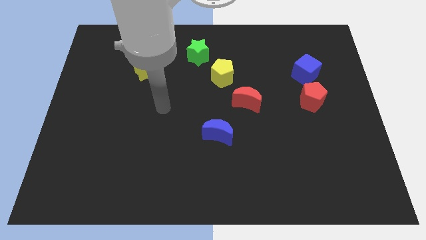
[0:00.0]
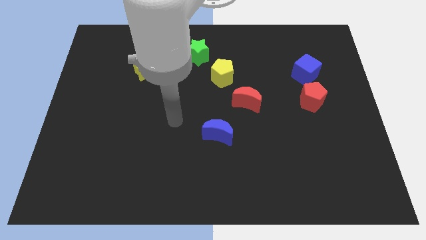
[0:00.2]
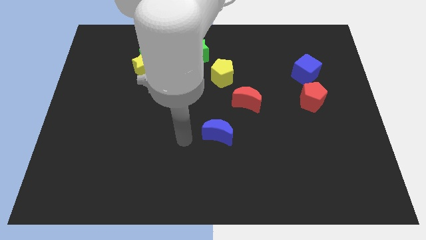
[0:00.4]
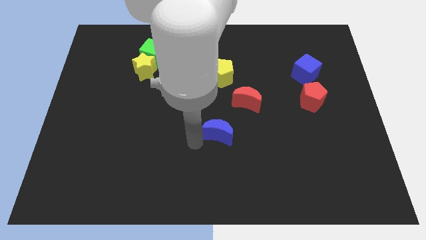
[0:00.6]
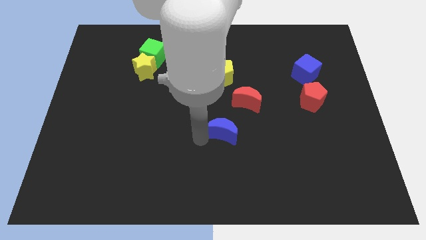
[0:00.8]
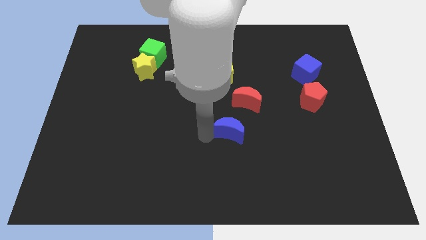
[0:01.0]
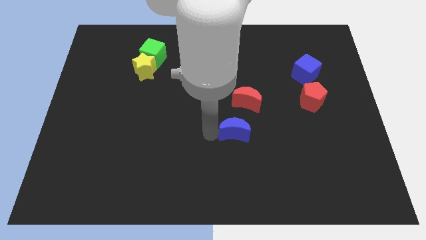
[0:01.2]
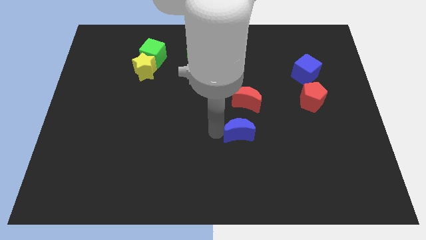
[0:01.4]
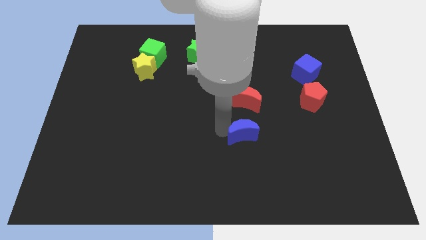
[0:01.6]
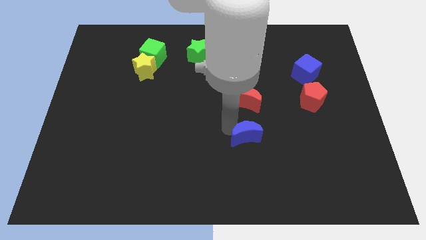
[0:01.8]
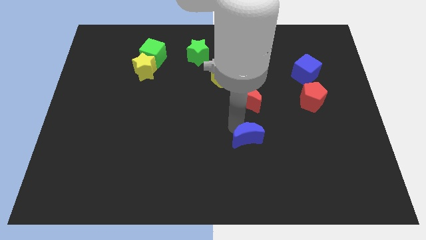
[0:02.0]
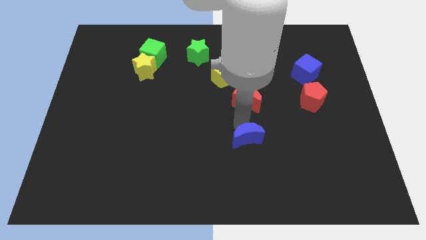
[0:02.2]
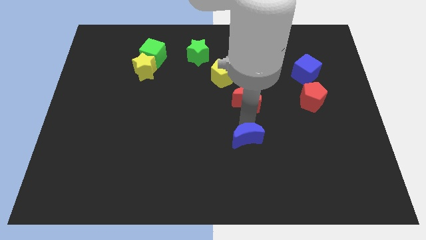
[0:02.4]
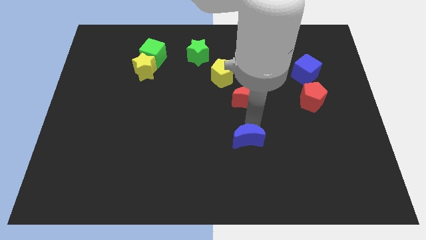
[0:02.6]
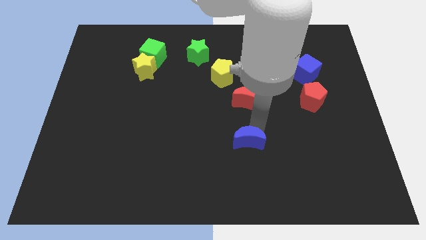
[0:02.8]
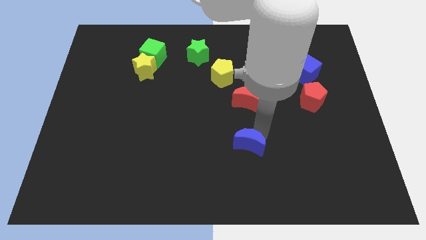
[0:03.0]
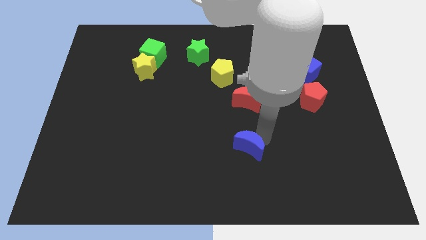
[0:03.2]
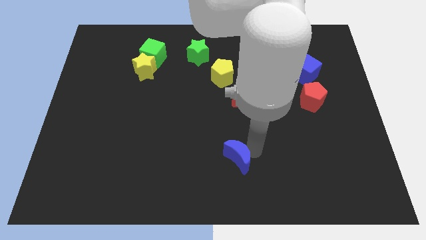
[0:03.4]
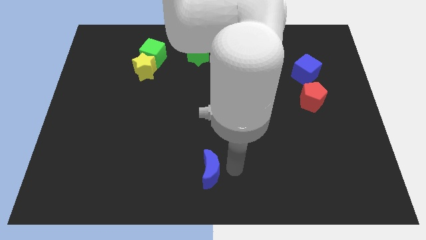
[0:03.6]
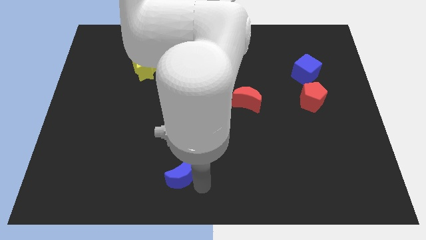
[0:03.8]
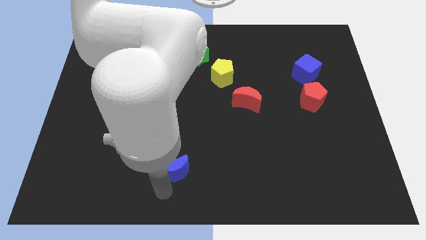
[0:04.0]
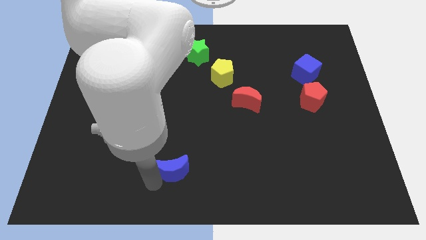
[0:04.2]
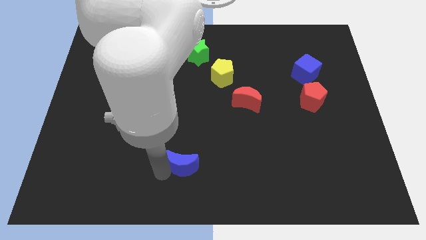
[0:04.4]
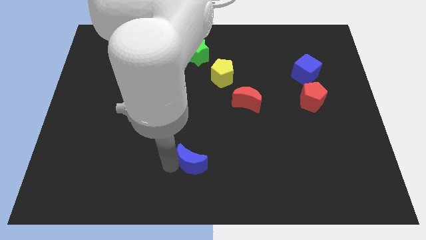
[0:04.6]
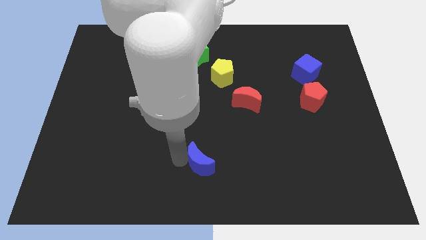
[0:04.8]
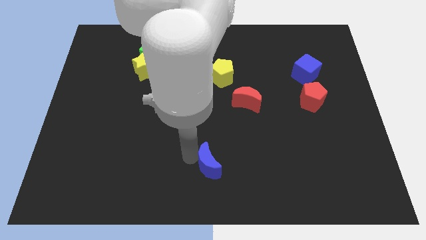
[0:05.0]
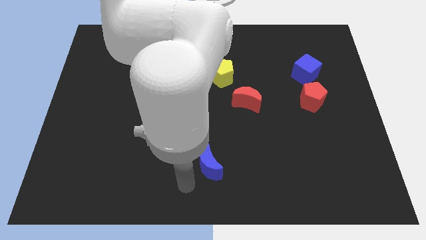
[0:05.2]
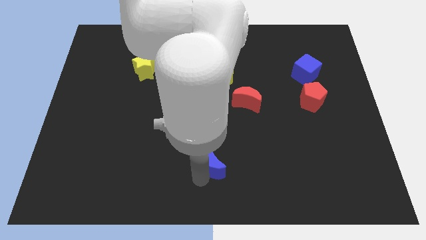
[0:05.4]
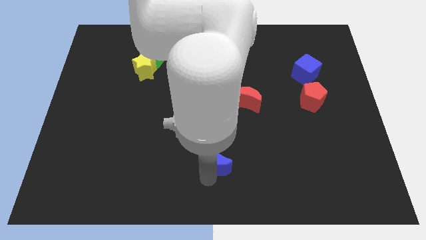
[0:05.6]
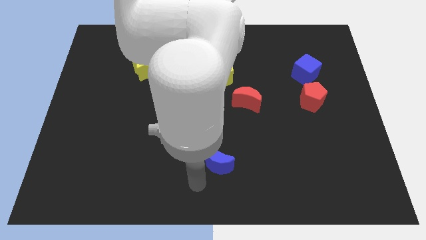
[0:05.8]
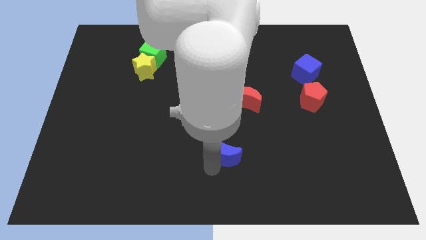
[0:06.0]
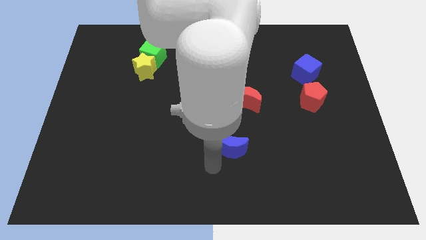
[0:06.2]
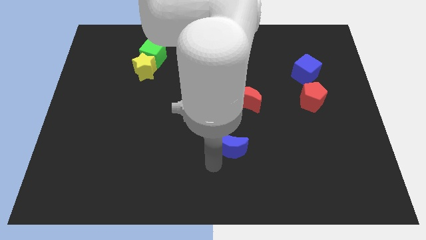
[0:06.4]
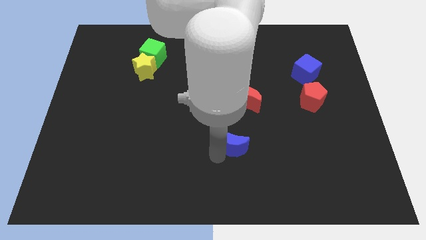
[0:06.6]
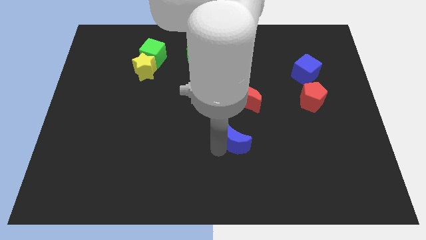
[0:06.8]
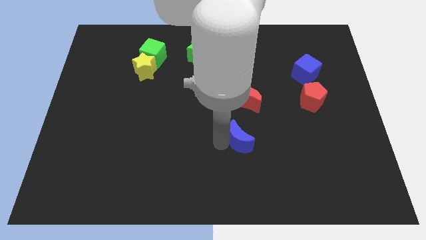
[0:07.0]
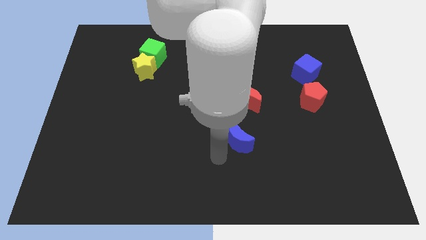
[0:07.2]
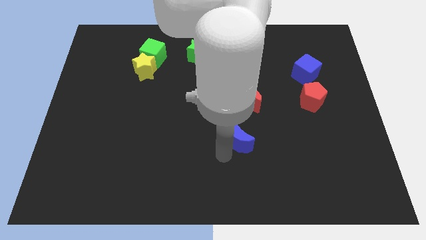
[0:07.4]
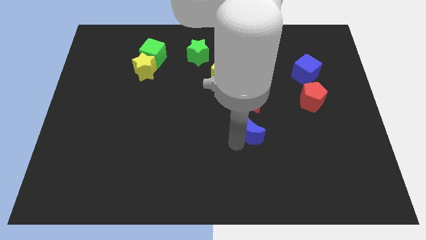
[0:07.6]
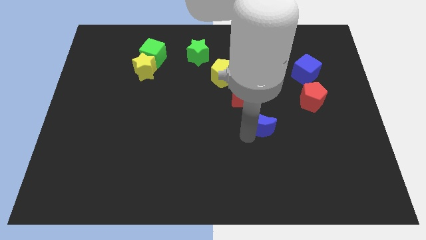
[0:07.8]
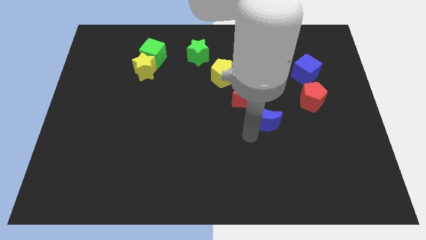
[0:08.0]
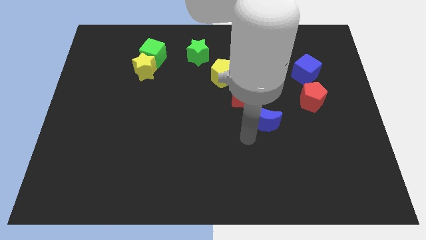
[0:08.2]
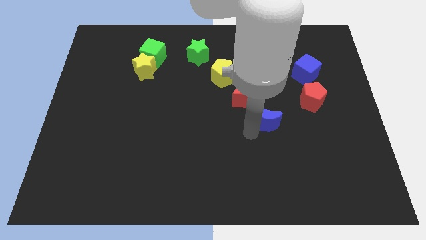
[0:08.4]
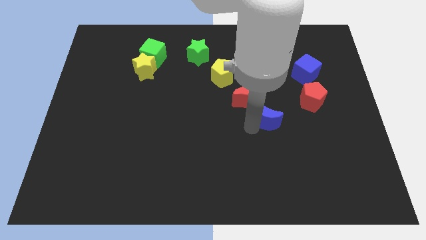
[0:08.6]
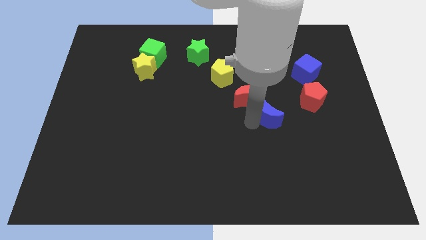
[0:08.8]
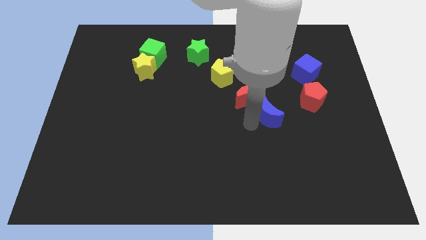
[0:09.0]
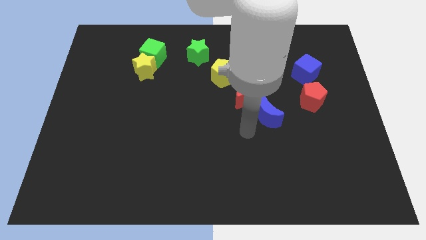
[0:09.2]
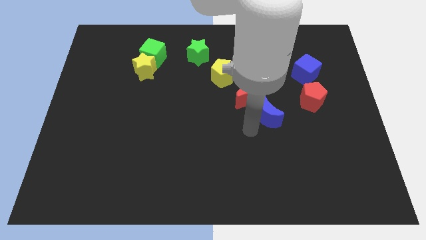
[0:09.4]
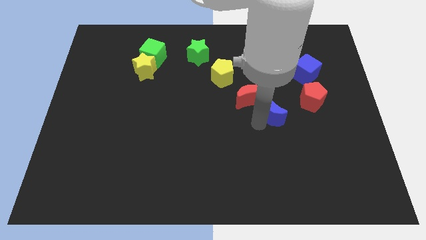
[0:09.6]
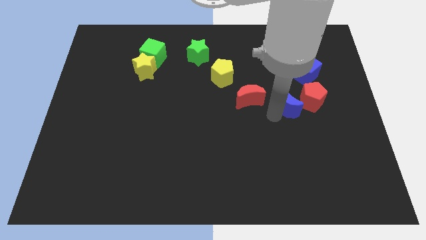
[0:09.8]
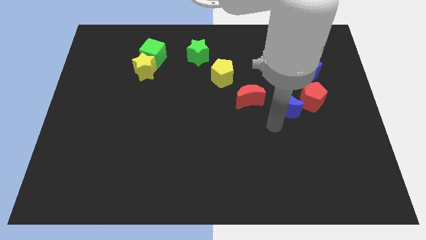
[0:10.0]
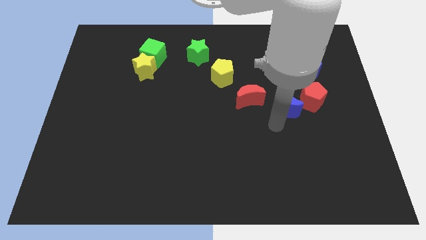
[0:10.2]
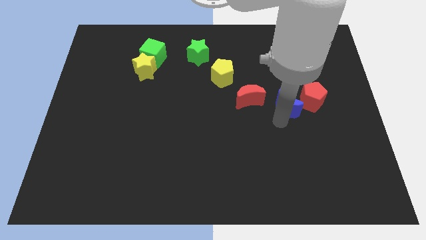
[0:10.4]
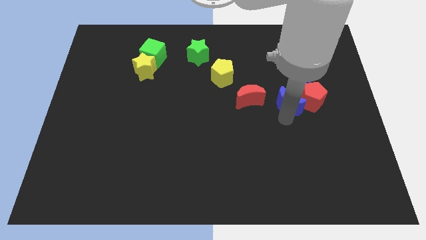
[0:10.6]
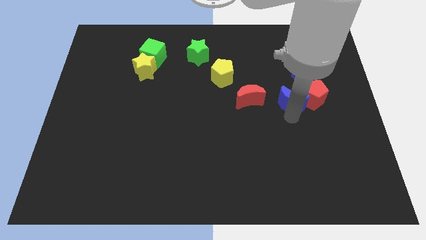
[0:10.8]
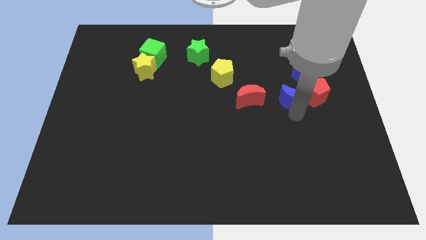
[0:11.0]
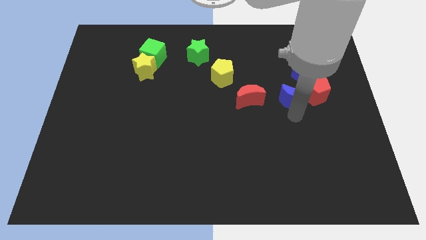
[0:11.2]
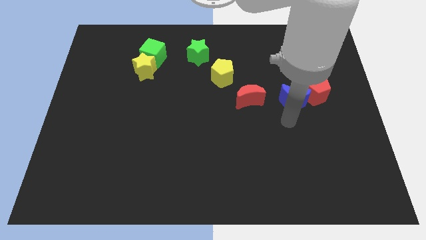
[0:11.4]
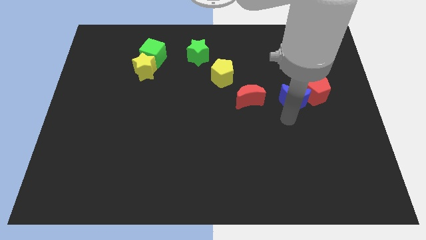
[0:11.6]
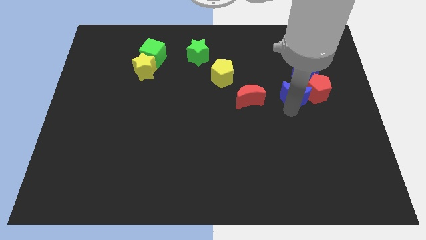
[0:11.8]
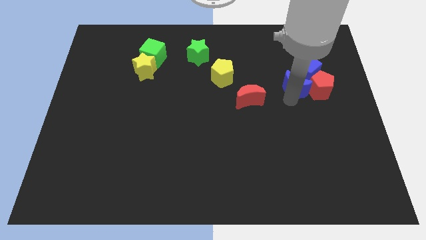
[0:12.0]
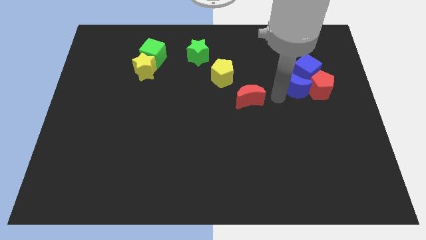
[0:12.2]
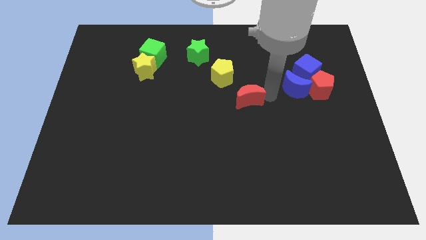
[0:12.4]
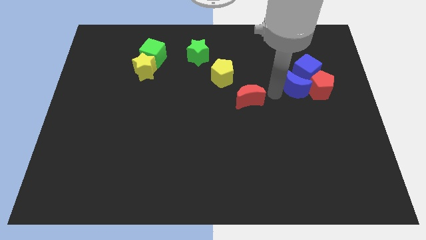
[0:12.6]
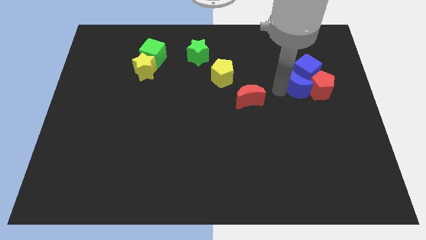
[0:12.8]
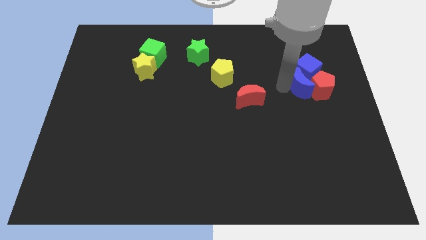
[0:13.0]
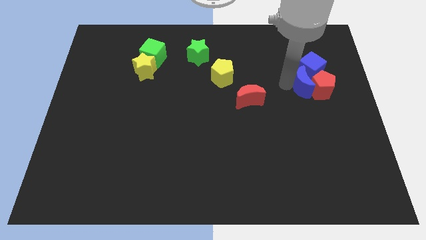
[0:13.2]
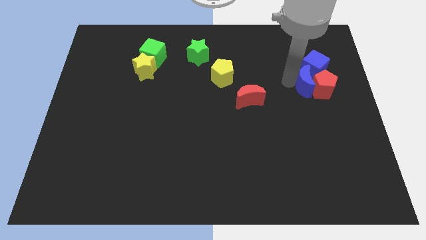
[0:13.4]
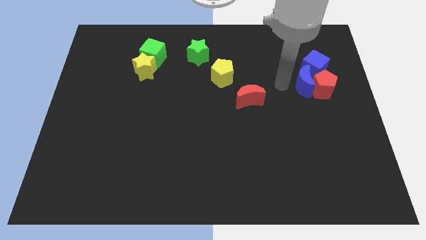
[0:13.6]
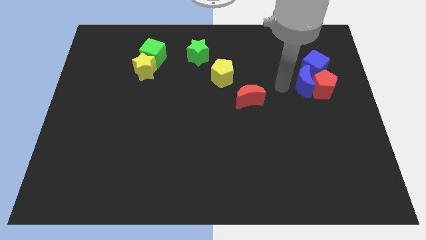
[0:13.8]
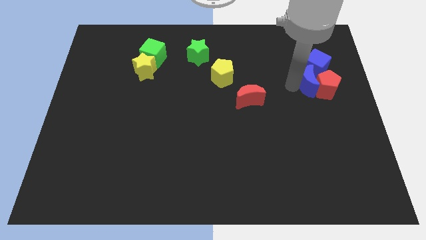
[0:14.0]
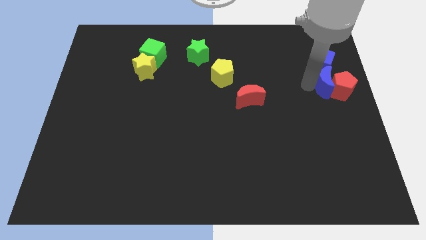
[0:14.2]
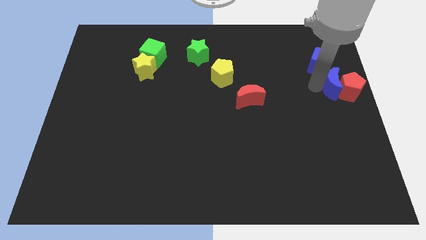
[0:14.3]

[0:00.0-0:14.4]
move the blue moon to the bottom right side of the blue cube

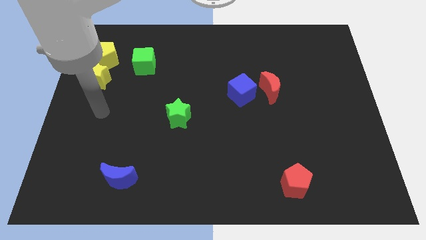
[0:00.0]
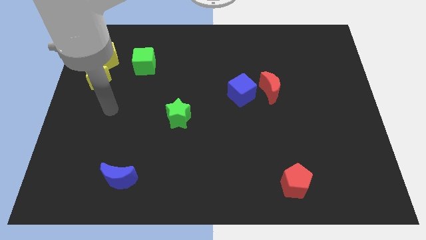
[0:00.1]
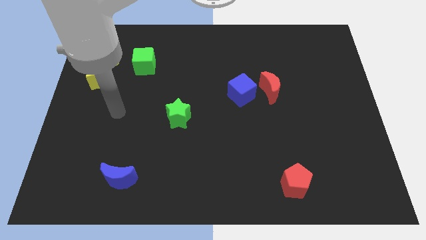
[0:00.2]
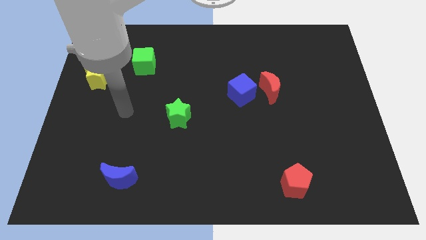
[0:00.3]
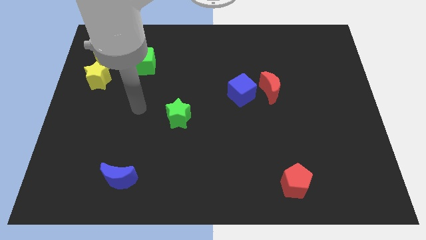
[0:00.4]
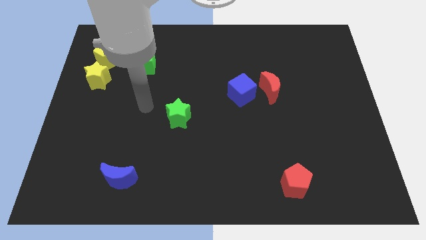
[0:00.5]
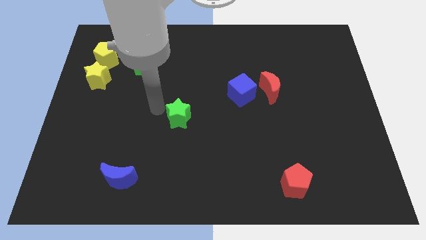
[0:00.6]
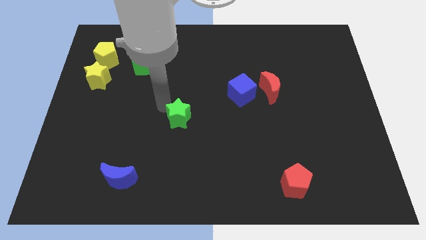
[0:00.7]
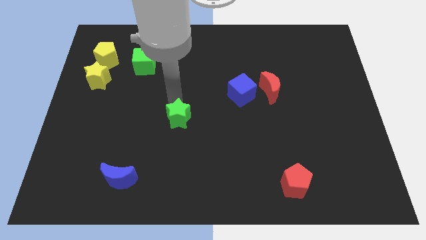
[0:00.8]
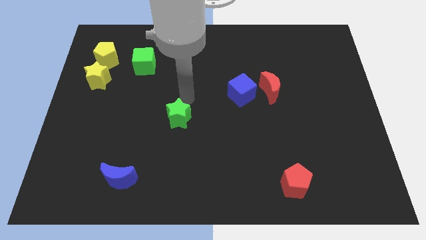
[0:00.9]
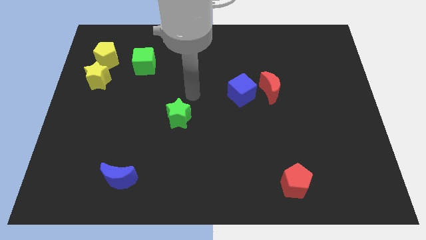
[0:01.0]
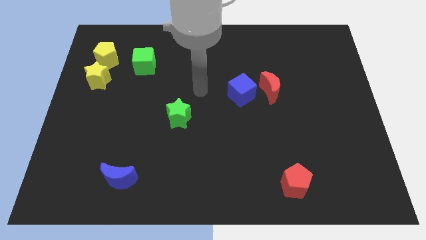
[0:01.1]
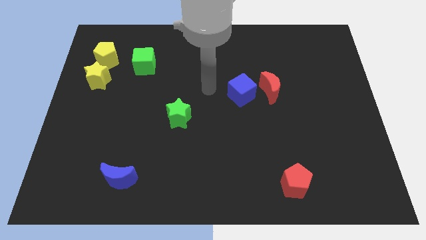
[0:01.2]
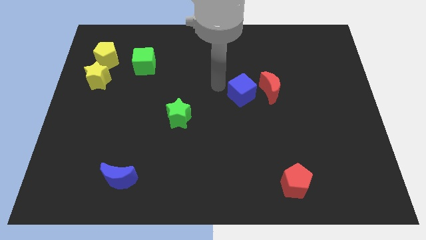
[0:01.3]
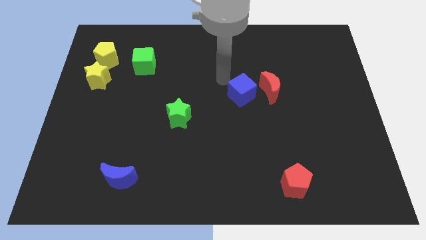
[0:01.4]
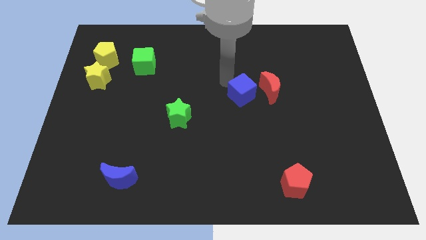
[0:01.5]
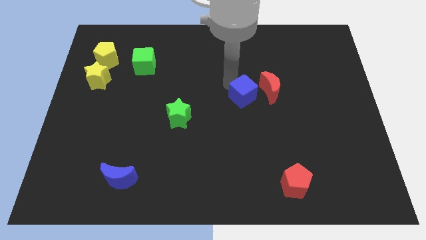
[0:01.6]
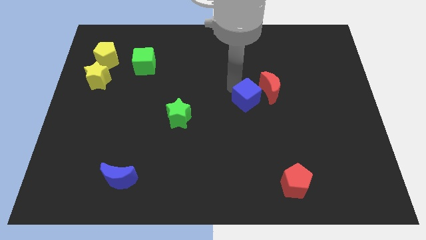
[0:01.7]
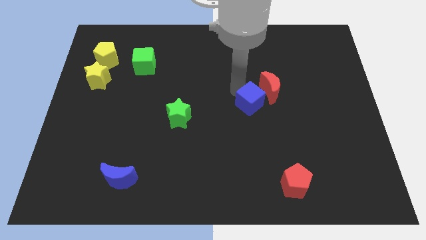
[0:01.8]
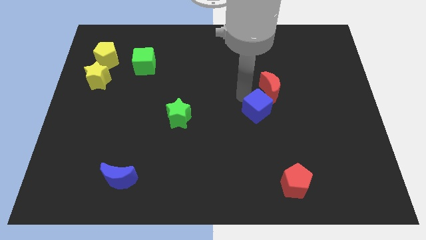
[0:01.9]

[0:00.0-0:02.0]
put the blue cube below the red moon
